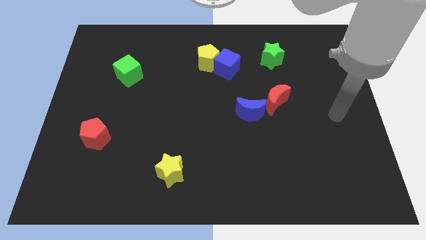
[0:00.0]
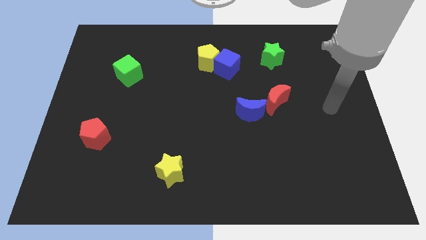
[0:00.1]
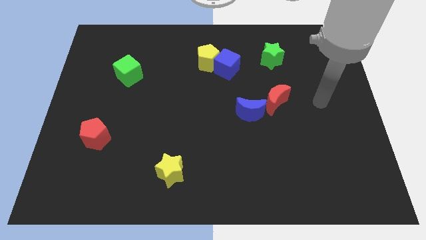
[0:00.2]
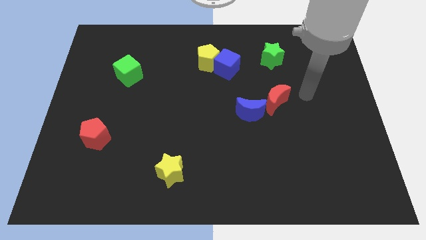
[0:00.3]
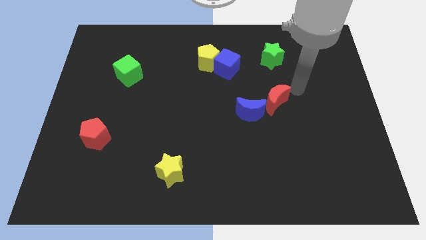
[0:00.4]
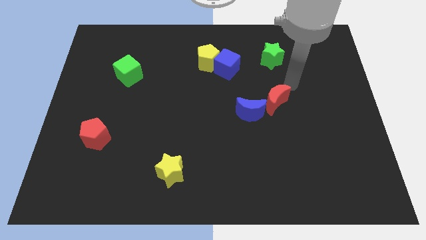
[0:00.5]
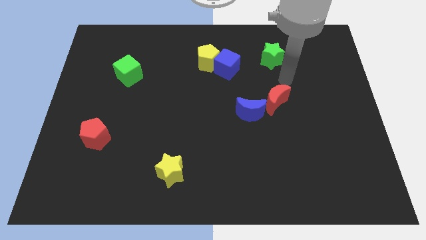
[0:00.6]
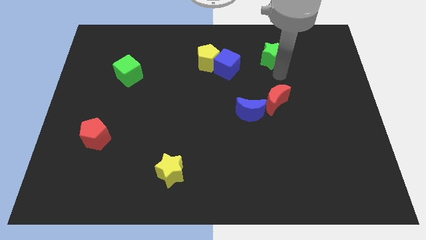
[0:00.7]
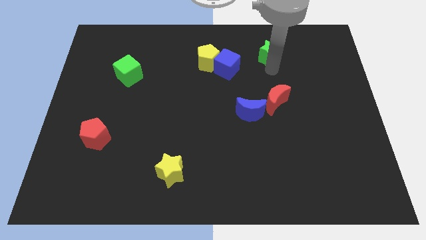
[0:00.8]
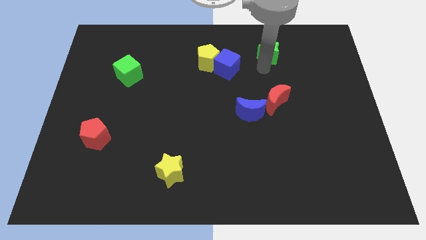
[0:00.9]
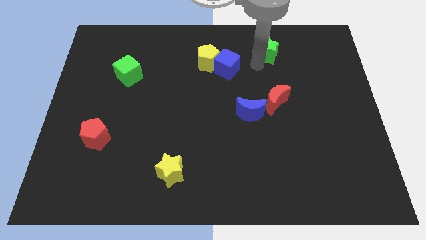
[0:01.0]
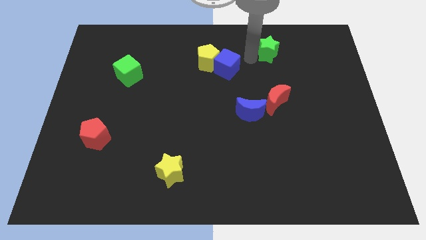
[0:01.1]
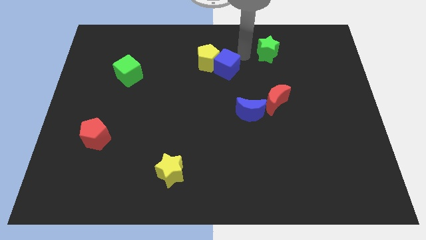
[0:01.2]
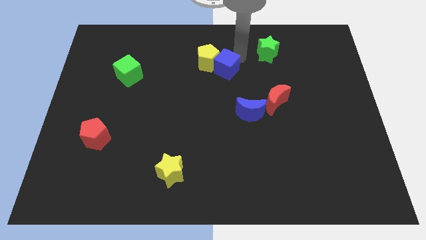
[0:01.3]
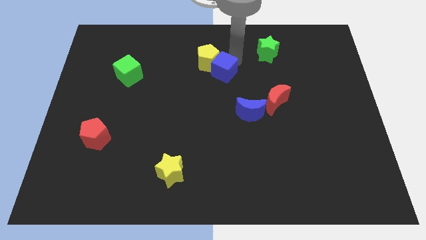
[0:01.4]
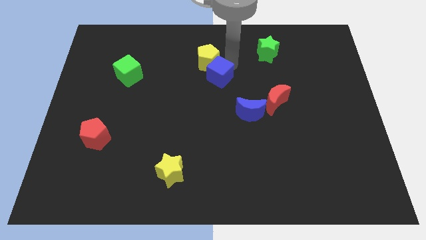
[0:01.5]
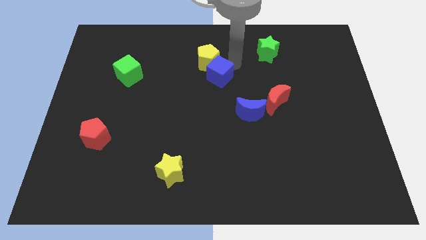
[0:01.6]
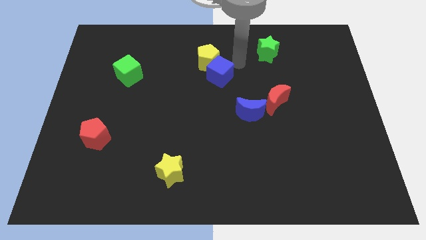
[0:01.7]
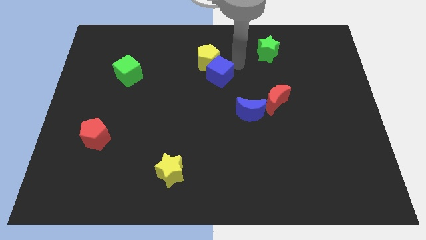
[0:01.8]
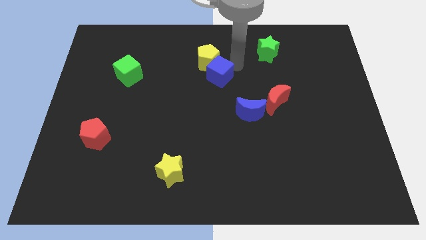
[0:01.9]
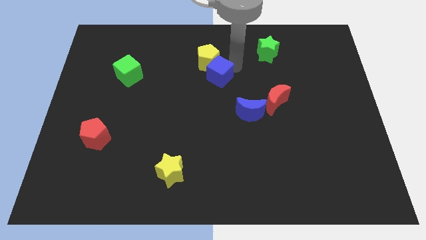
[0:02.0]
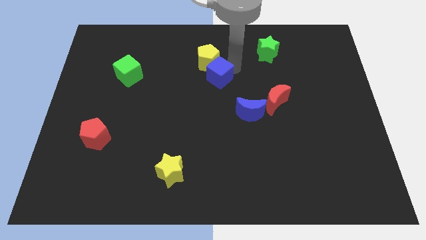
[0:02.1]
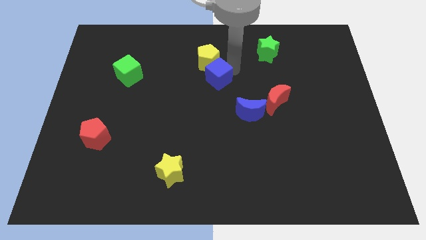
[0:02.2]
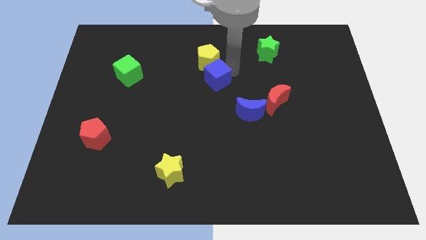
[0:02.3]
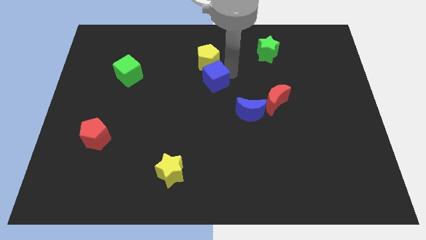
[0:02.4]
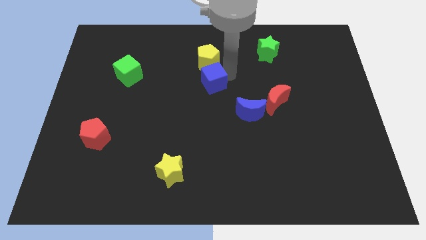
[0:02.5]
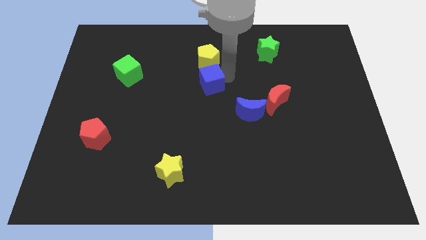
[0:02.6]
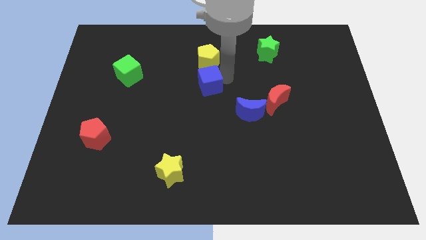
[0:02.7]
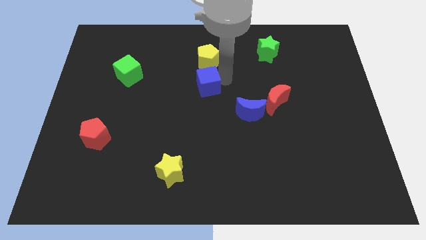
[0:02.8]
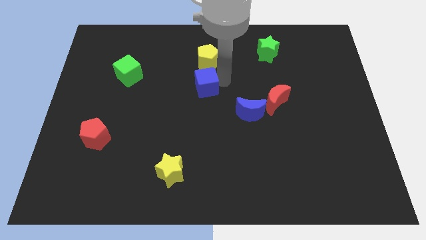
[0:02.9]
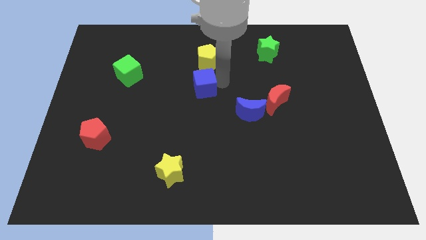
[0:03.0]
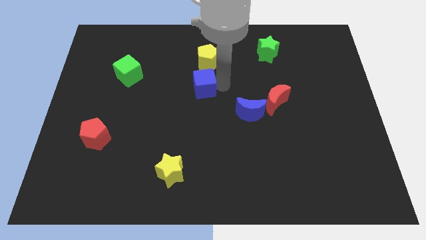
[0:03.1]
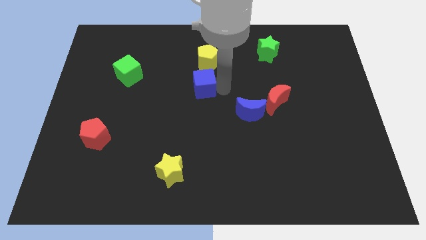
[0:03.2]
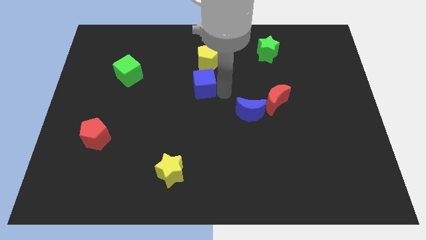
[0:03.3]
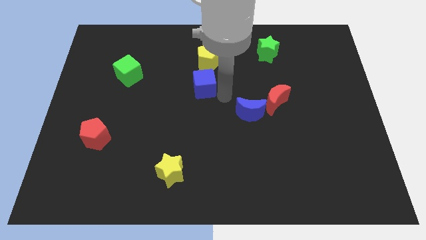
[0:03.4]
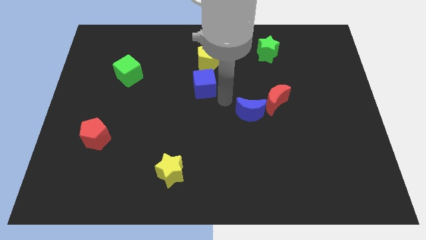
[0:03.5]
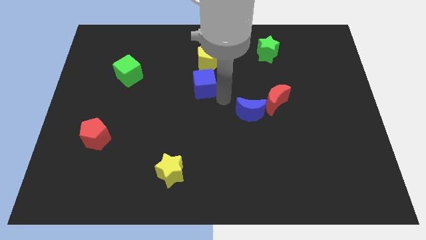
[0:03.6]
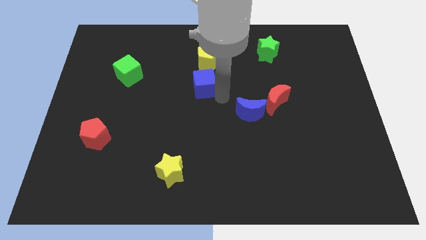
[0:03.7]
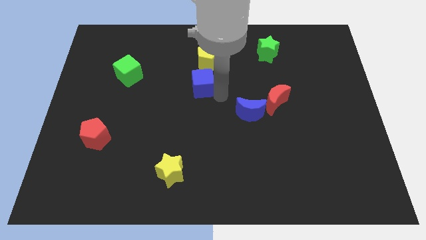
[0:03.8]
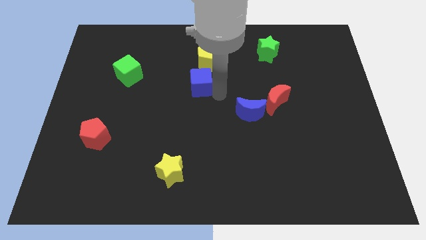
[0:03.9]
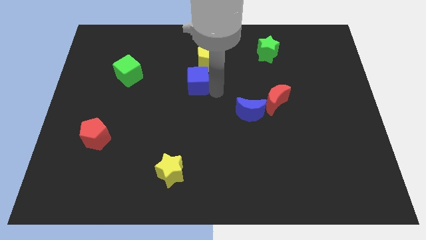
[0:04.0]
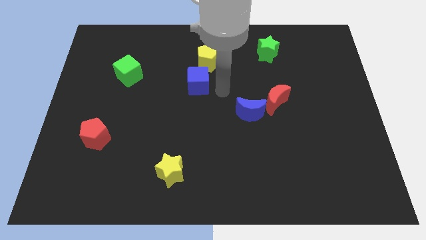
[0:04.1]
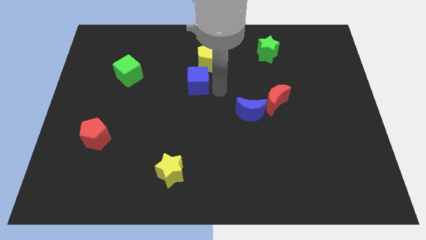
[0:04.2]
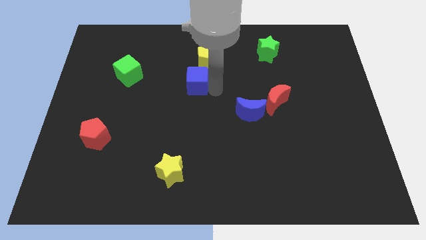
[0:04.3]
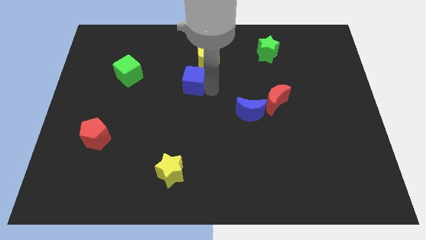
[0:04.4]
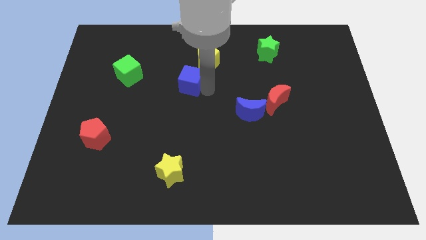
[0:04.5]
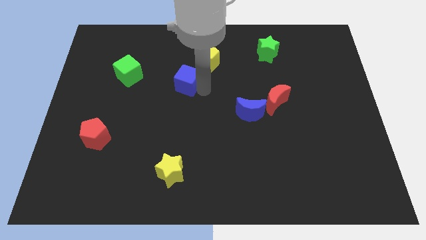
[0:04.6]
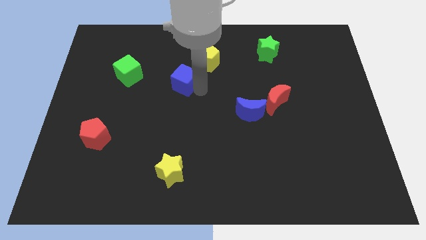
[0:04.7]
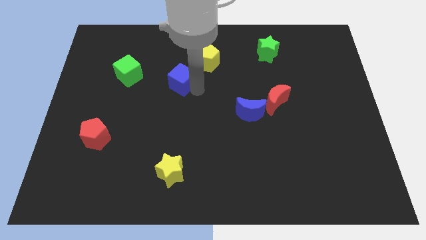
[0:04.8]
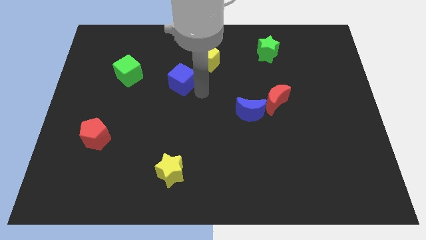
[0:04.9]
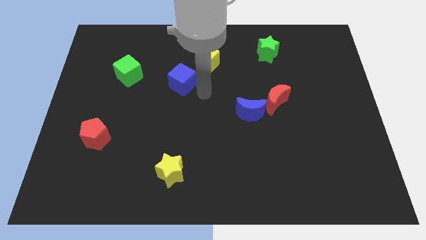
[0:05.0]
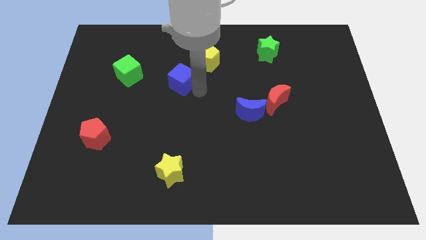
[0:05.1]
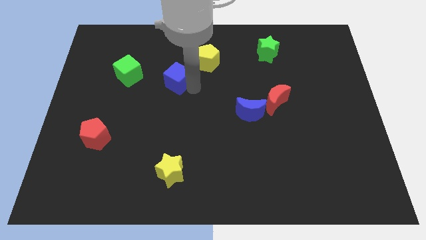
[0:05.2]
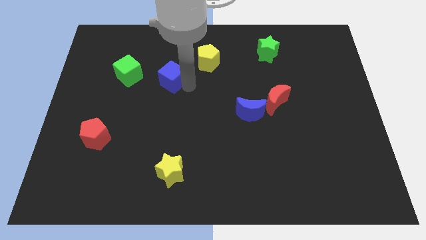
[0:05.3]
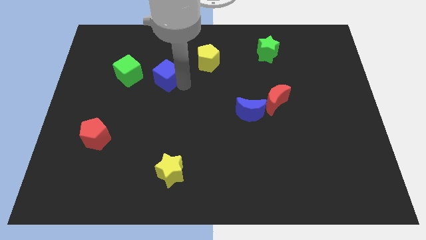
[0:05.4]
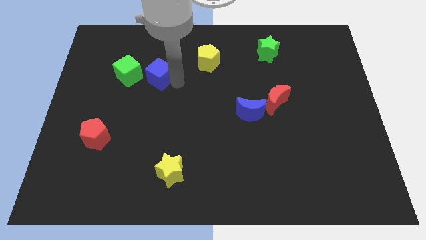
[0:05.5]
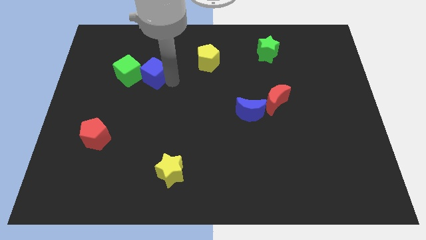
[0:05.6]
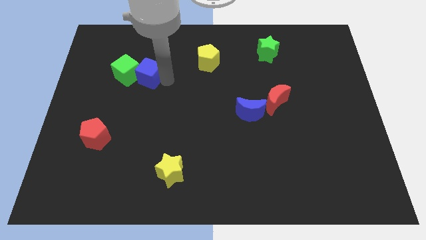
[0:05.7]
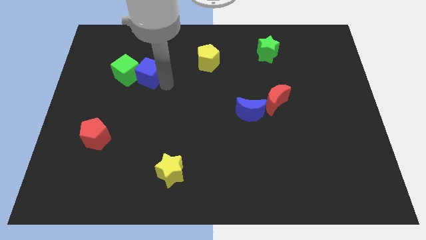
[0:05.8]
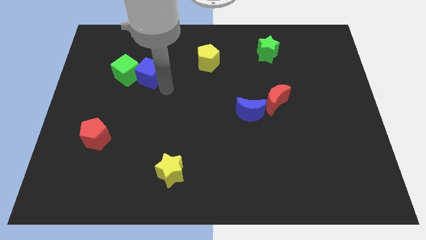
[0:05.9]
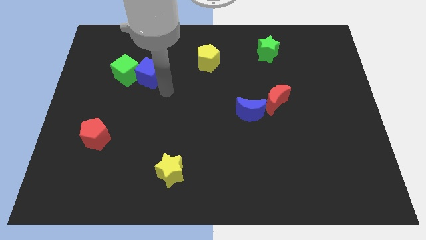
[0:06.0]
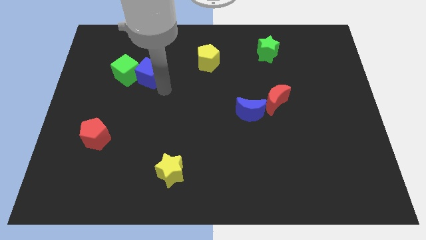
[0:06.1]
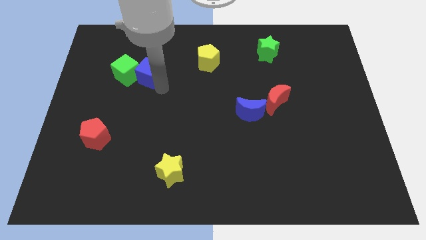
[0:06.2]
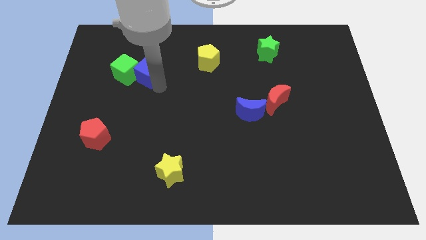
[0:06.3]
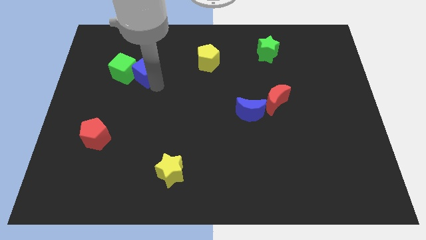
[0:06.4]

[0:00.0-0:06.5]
push the blue cube to the left

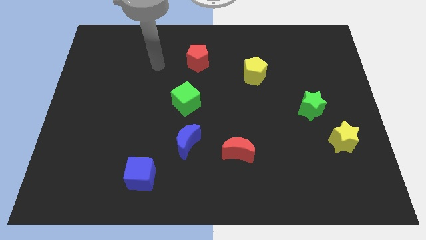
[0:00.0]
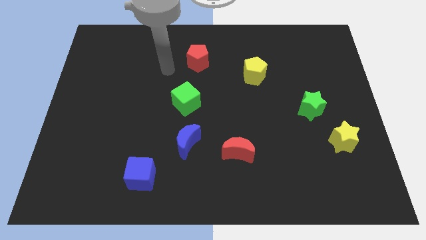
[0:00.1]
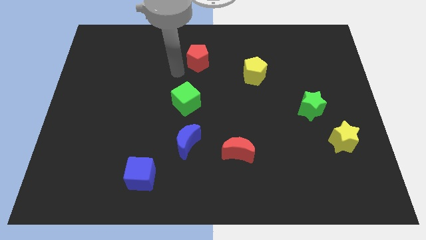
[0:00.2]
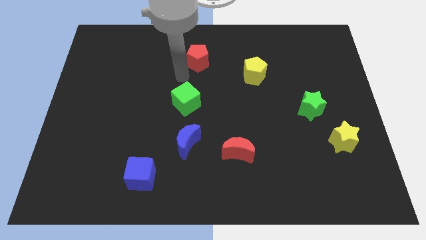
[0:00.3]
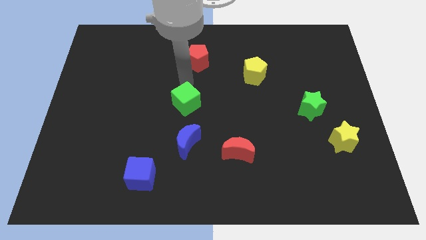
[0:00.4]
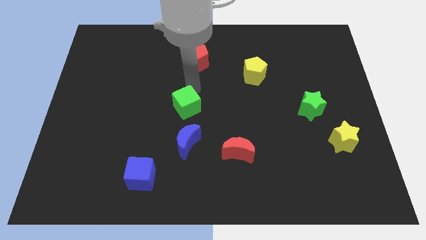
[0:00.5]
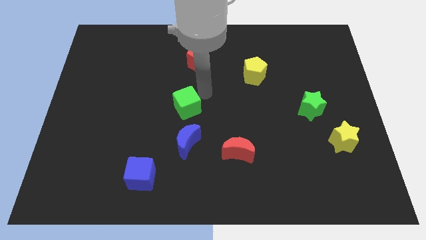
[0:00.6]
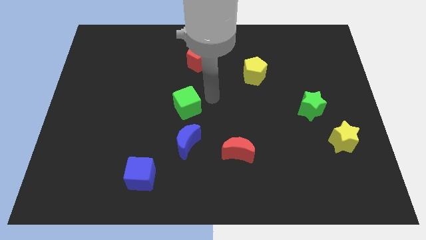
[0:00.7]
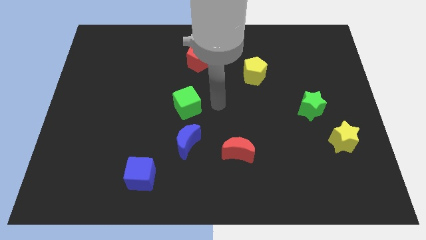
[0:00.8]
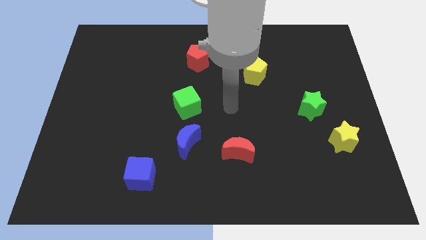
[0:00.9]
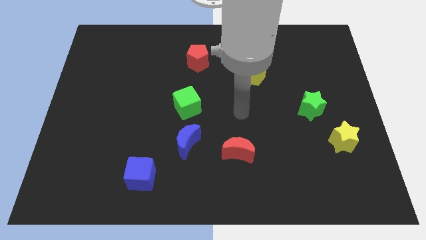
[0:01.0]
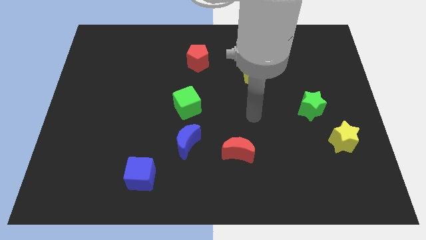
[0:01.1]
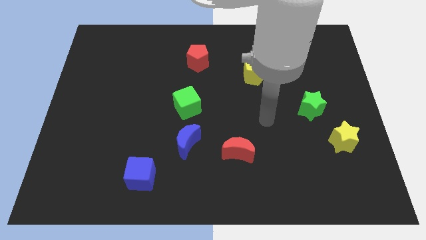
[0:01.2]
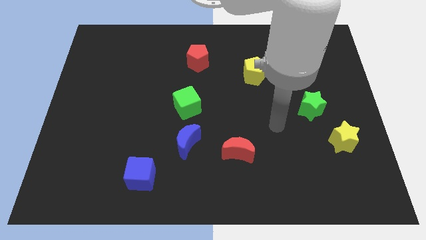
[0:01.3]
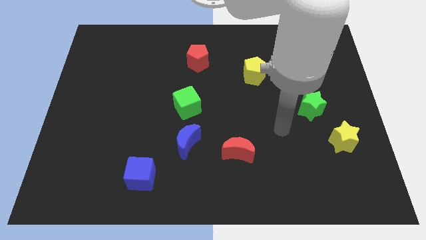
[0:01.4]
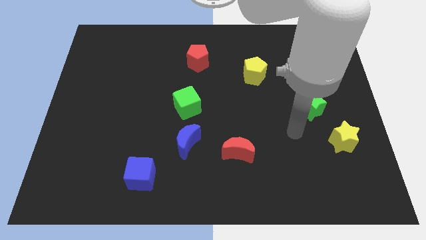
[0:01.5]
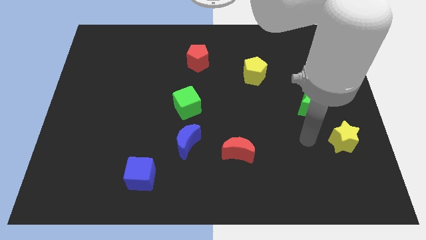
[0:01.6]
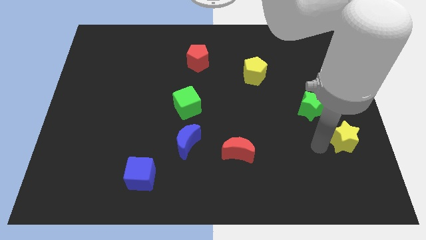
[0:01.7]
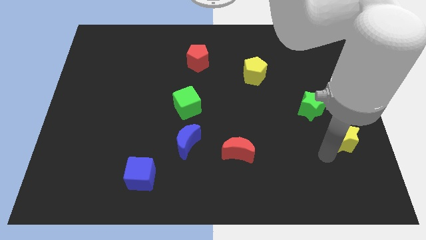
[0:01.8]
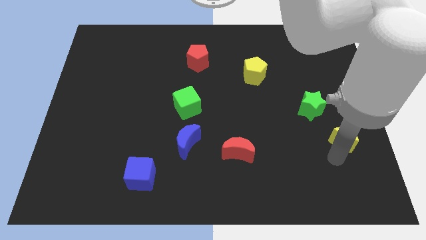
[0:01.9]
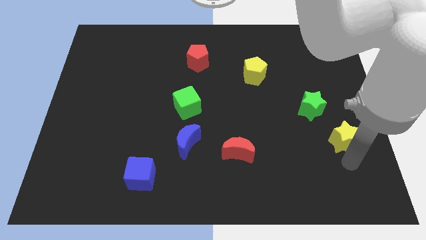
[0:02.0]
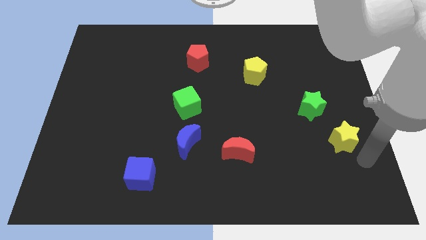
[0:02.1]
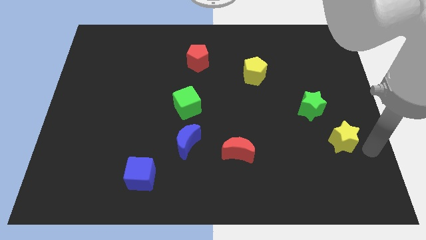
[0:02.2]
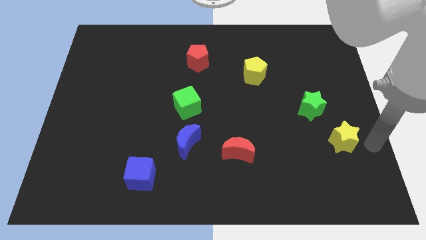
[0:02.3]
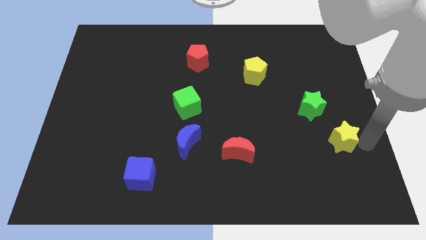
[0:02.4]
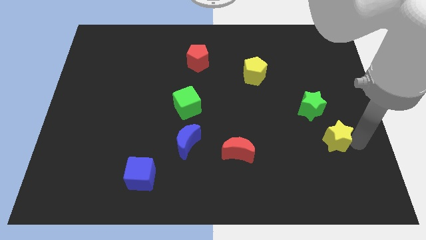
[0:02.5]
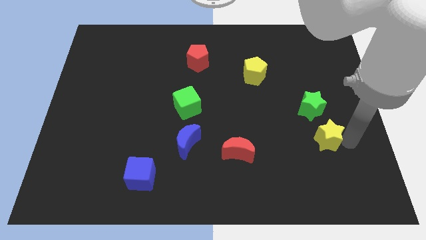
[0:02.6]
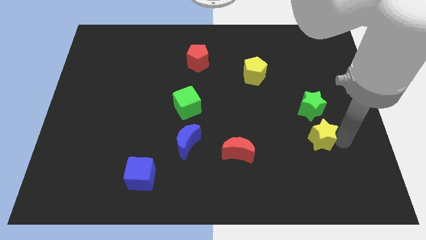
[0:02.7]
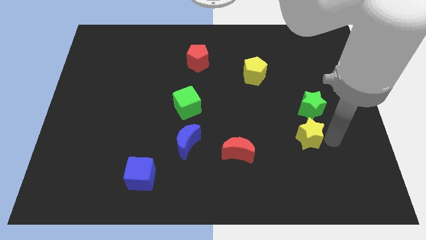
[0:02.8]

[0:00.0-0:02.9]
slightly push the yellow star left
